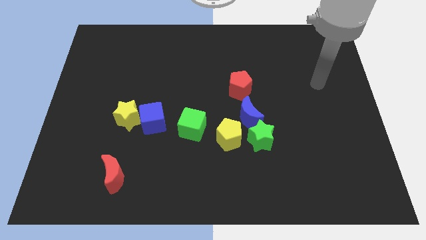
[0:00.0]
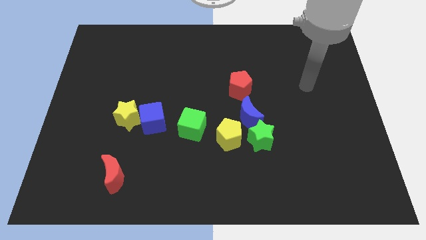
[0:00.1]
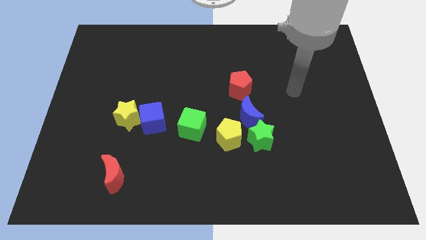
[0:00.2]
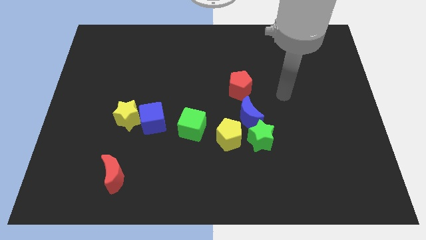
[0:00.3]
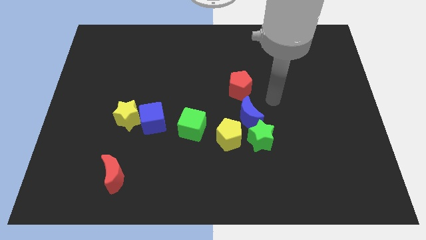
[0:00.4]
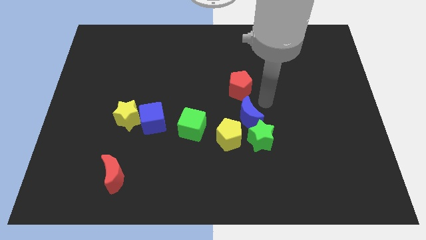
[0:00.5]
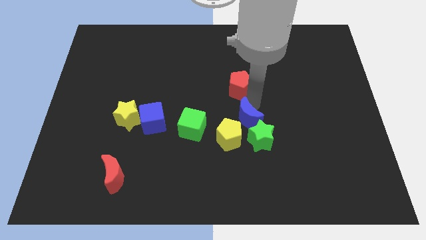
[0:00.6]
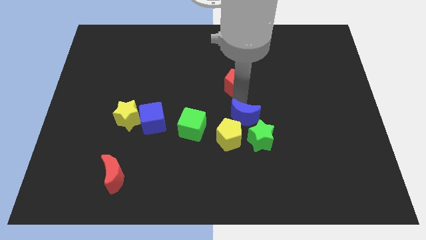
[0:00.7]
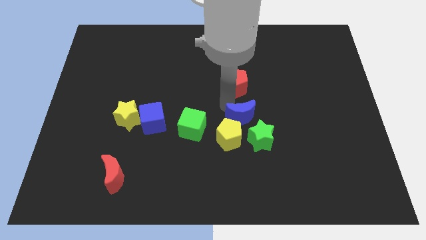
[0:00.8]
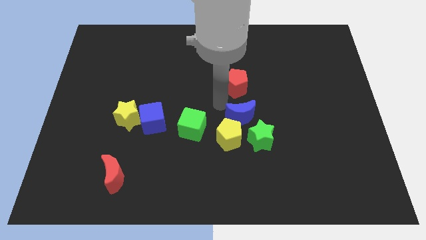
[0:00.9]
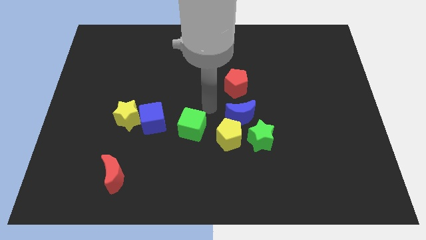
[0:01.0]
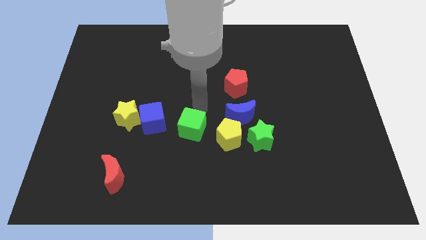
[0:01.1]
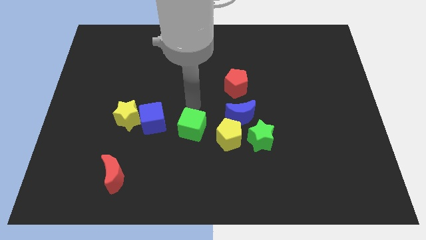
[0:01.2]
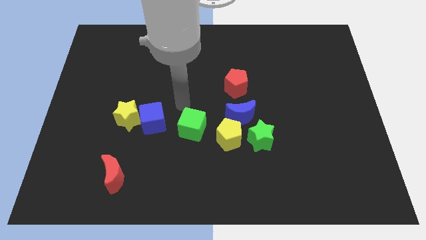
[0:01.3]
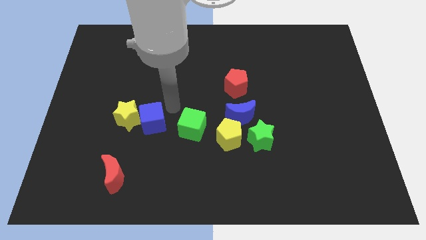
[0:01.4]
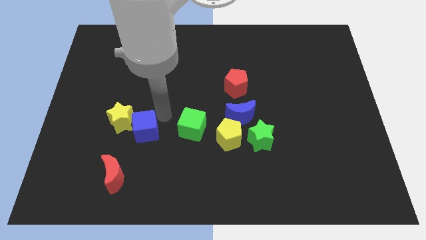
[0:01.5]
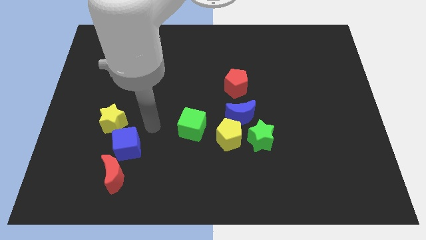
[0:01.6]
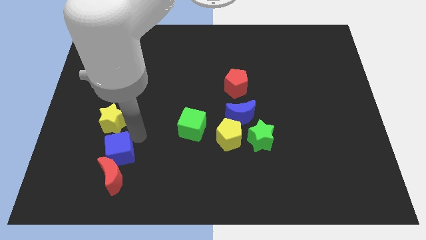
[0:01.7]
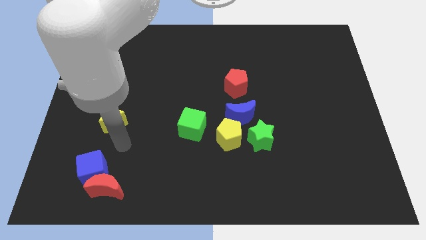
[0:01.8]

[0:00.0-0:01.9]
separate the yellow star from the blue cube

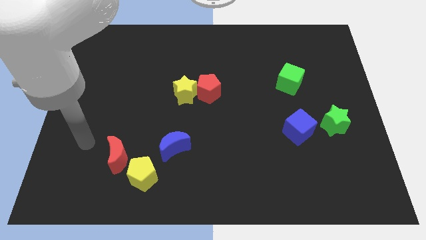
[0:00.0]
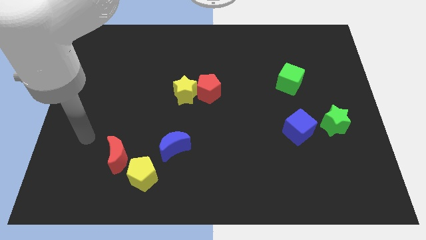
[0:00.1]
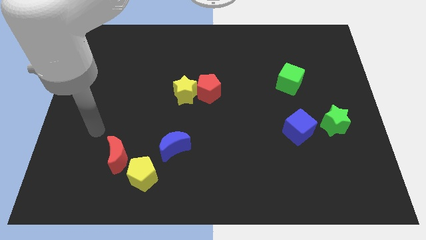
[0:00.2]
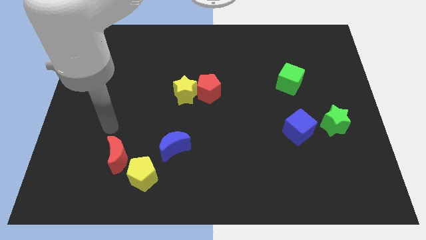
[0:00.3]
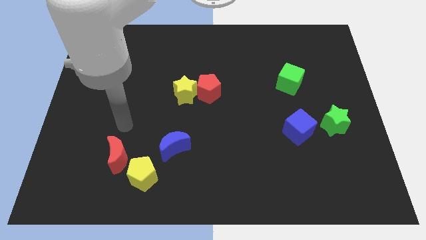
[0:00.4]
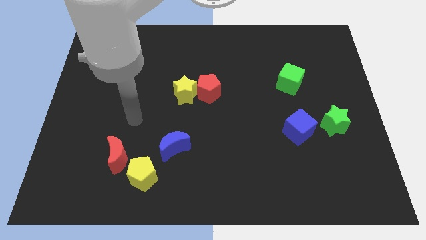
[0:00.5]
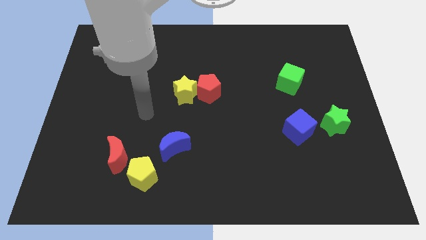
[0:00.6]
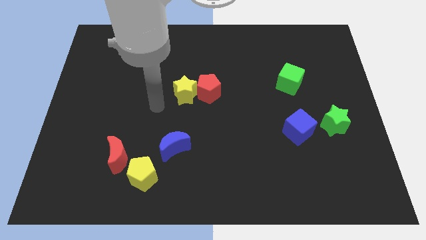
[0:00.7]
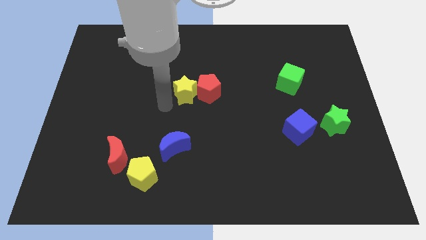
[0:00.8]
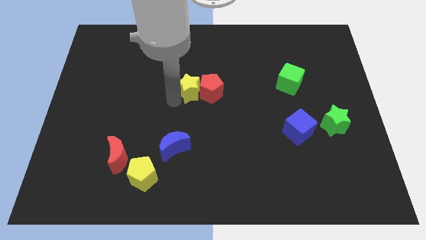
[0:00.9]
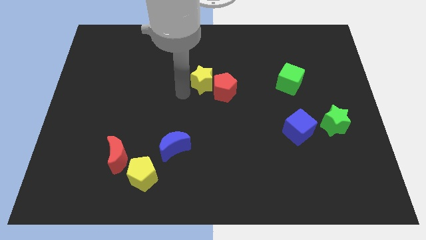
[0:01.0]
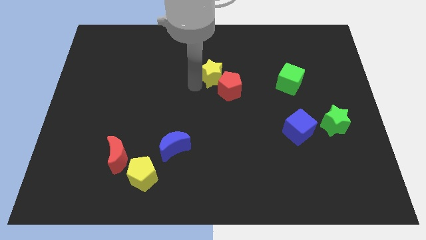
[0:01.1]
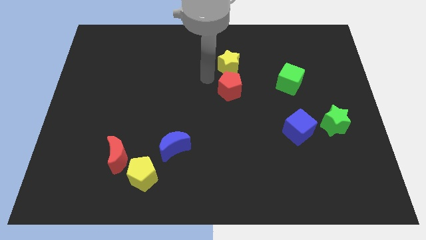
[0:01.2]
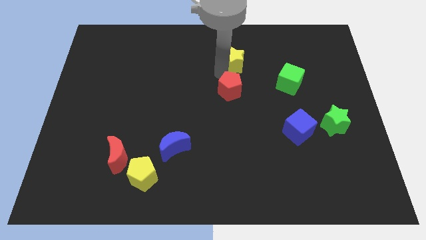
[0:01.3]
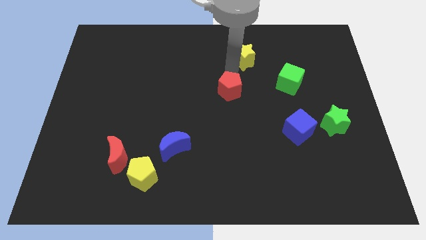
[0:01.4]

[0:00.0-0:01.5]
pull the red pentagon apart from the yellow star

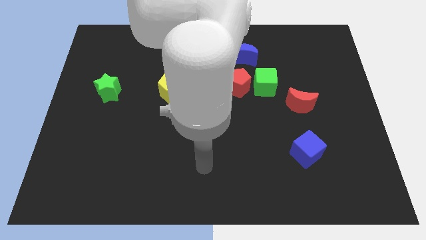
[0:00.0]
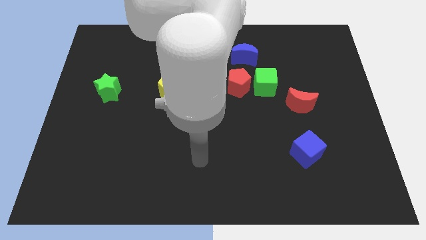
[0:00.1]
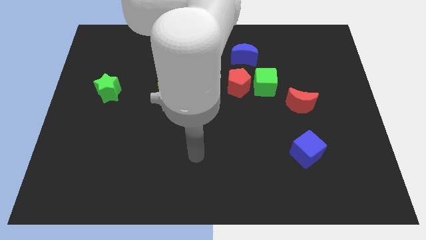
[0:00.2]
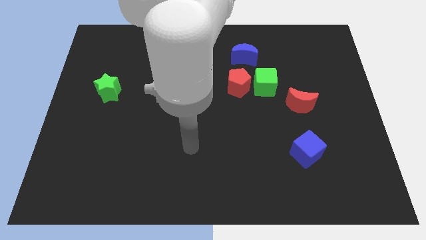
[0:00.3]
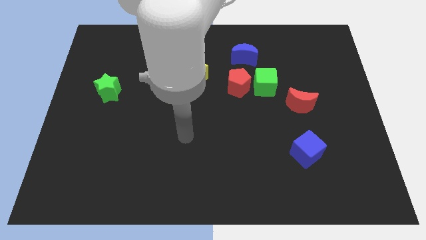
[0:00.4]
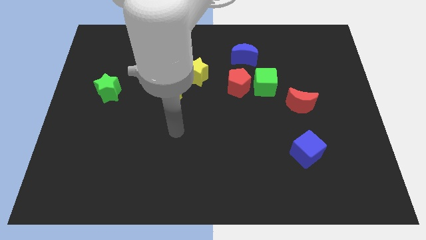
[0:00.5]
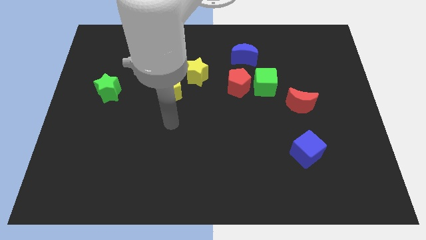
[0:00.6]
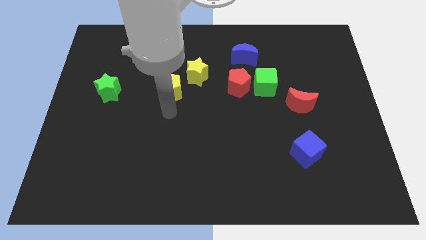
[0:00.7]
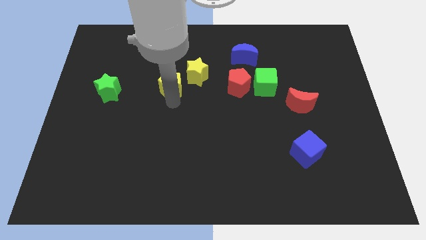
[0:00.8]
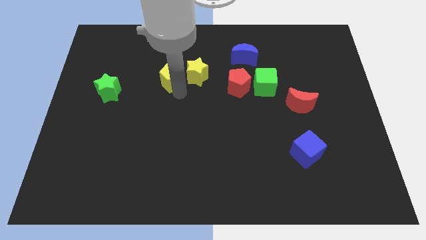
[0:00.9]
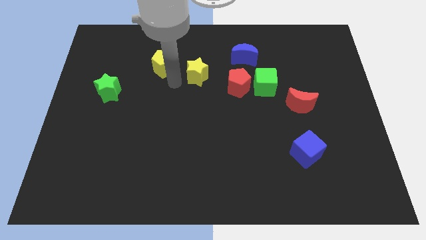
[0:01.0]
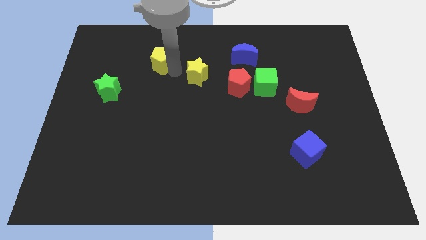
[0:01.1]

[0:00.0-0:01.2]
move the yellow star away from the yellow pentagon

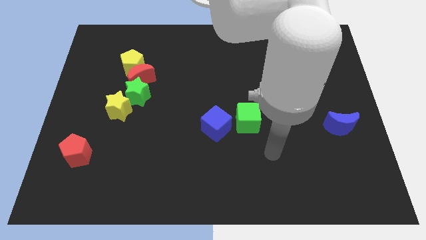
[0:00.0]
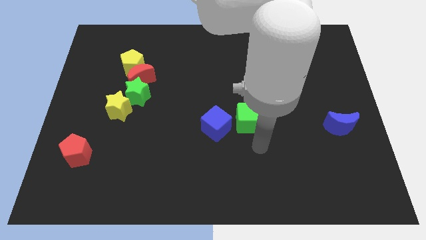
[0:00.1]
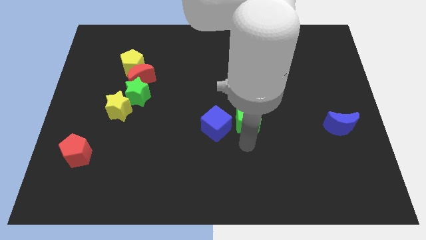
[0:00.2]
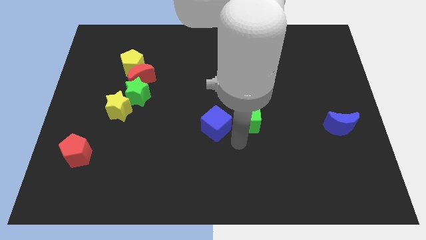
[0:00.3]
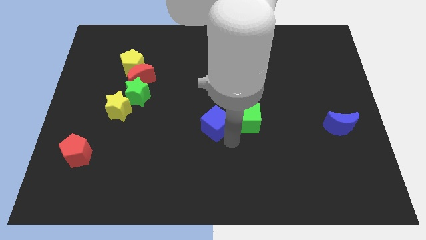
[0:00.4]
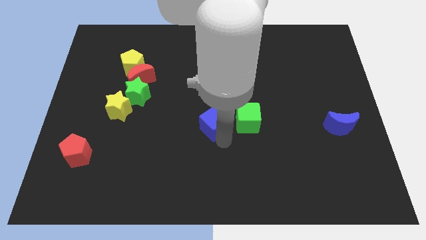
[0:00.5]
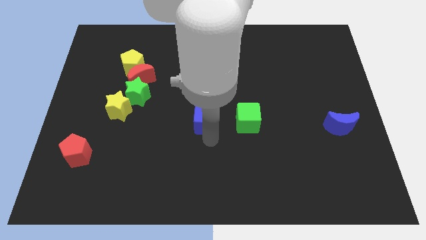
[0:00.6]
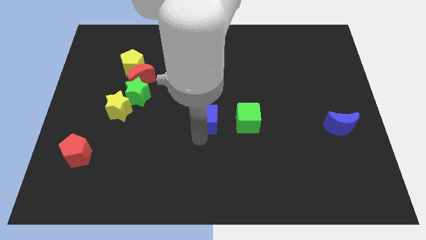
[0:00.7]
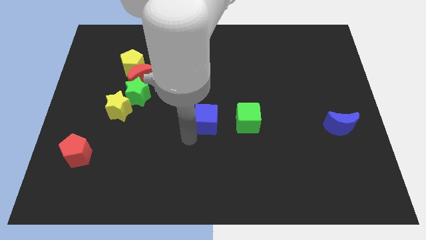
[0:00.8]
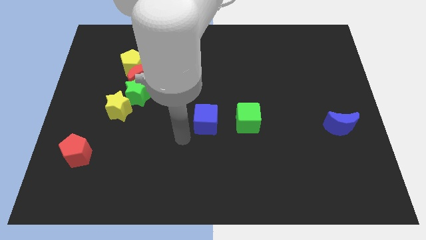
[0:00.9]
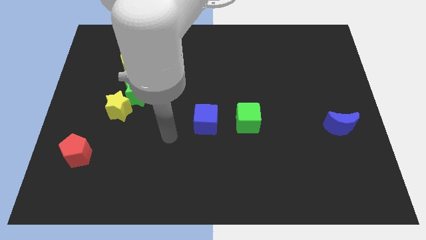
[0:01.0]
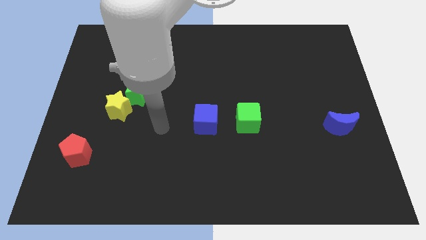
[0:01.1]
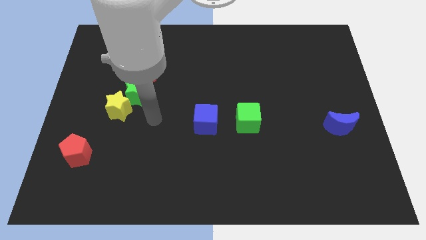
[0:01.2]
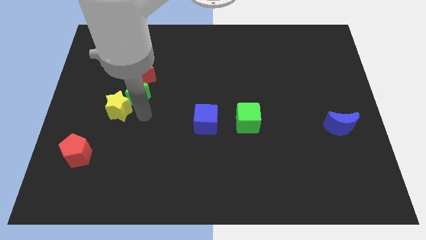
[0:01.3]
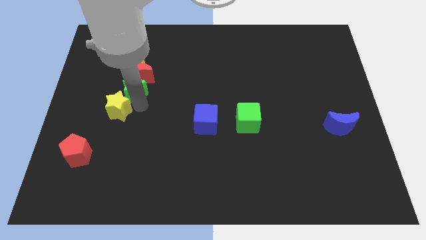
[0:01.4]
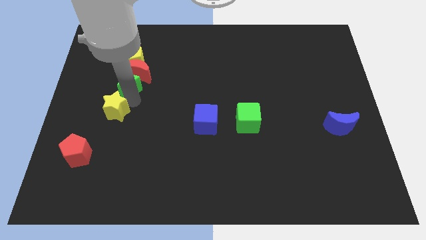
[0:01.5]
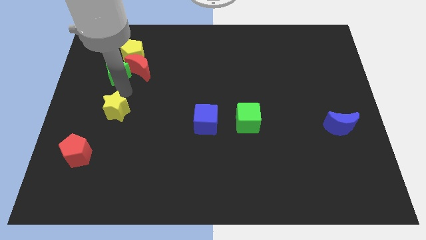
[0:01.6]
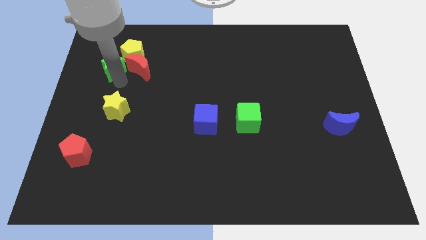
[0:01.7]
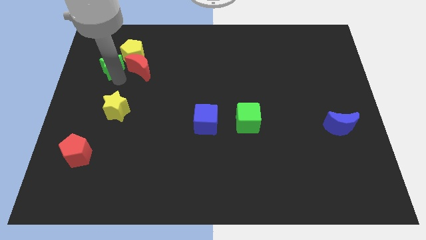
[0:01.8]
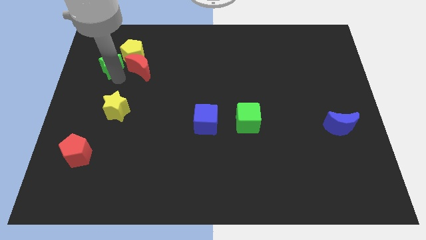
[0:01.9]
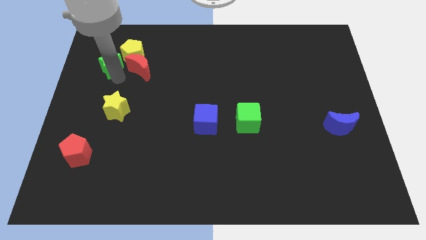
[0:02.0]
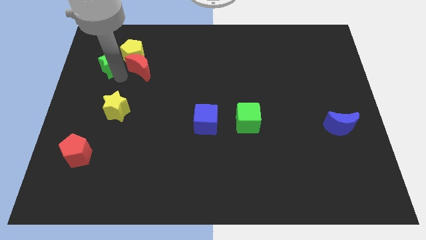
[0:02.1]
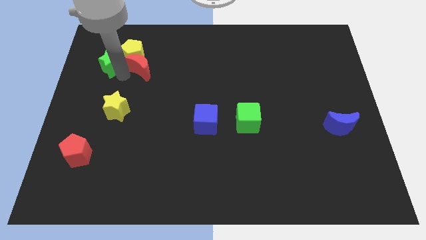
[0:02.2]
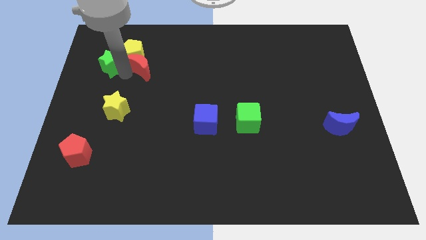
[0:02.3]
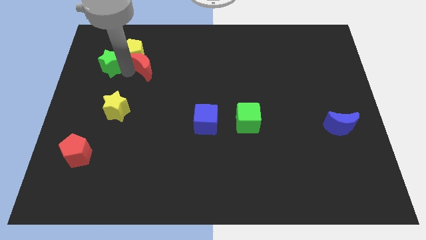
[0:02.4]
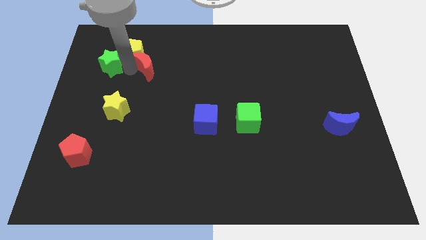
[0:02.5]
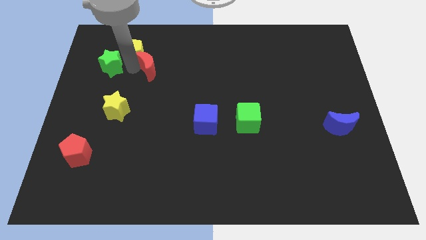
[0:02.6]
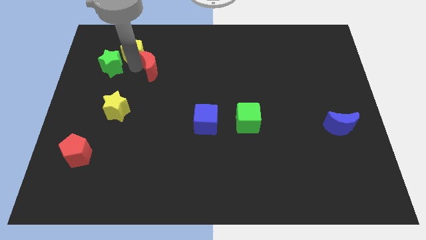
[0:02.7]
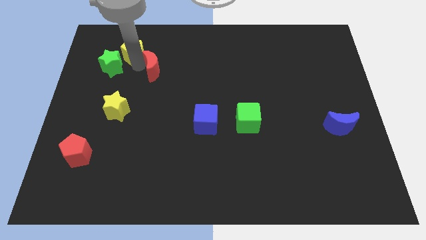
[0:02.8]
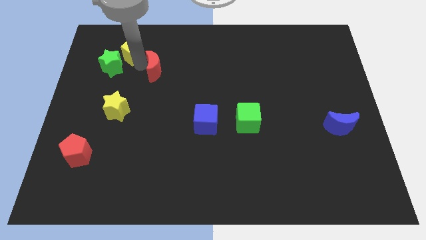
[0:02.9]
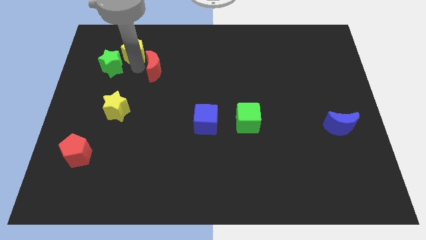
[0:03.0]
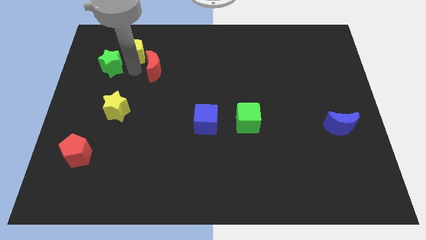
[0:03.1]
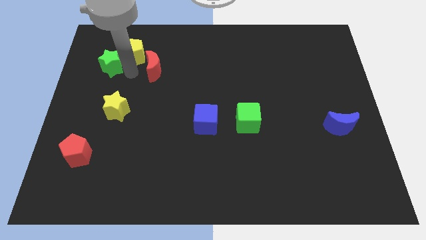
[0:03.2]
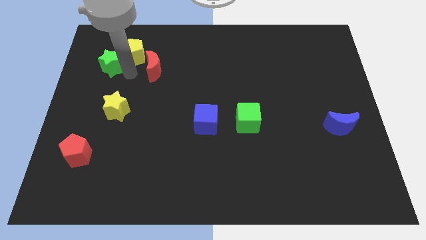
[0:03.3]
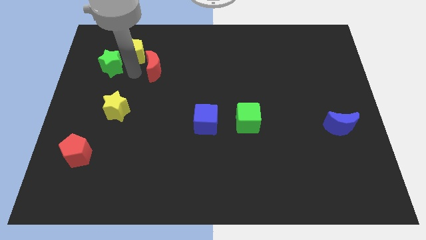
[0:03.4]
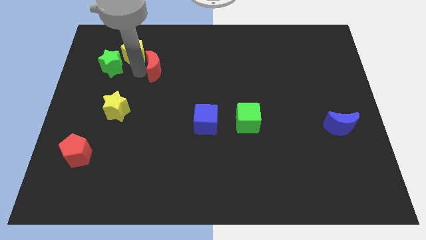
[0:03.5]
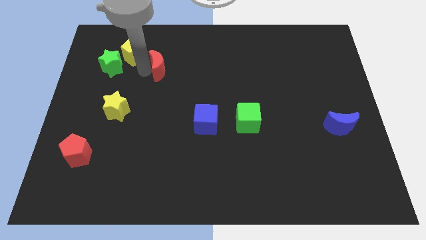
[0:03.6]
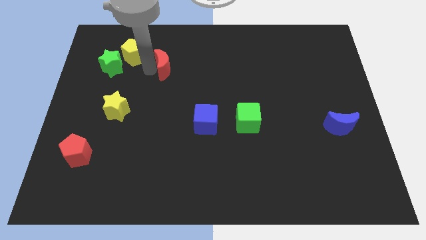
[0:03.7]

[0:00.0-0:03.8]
pull the red moon apart from the yellow pentagon, green star, and yellow star

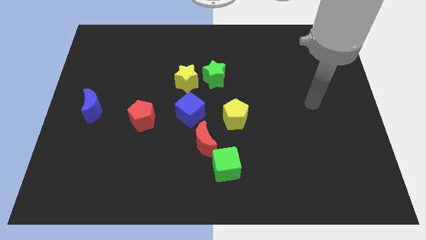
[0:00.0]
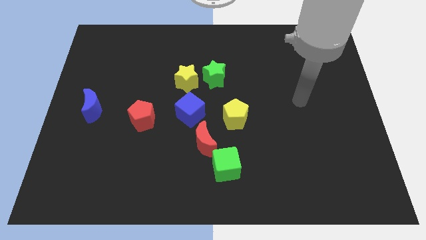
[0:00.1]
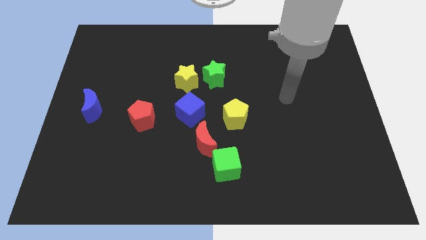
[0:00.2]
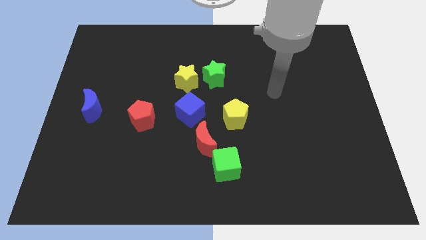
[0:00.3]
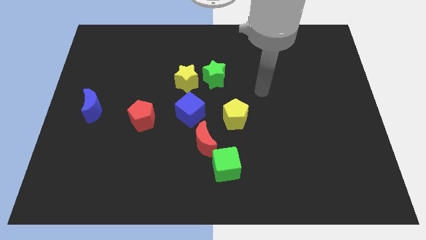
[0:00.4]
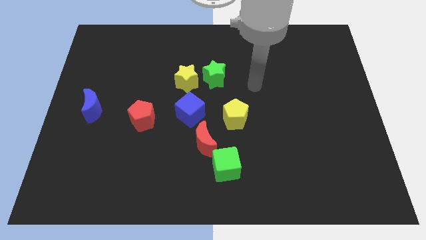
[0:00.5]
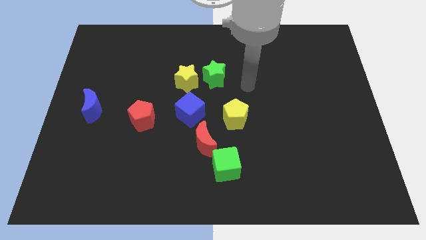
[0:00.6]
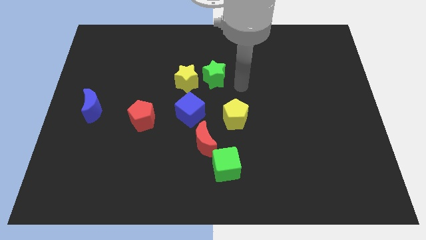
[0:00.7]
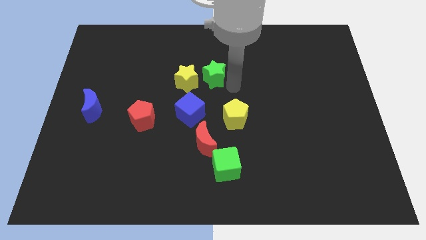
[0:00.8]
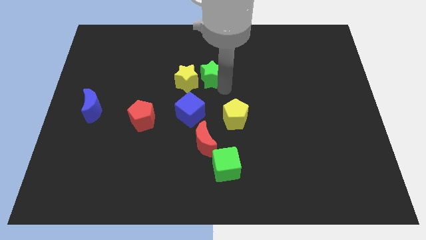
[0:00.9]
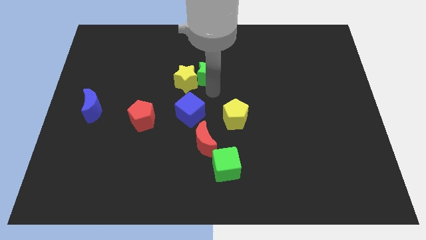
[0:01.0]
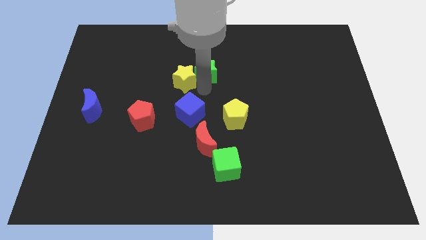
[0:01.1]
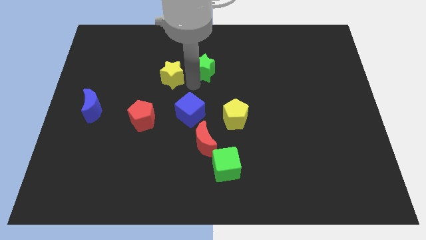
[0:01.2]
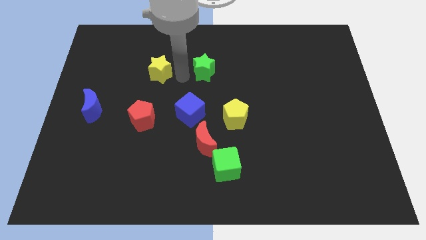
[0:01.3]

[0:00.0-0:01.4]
move the green star away from the yellow star
